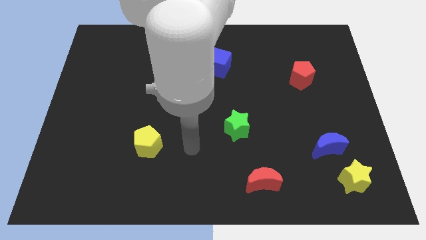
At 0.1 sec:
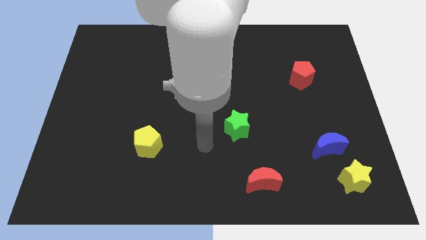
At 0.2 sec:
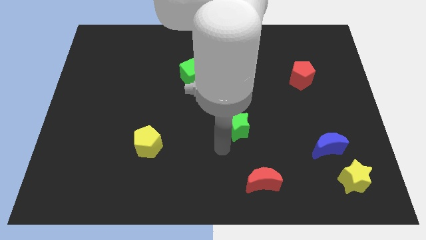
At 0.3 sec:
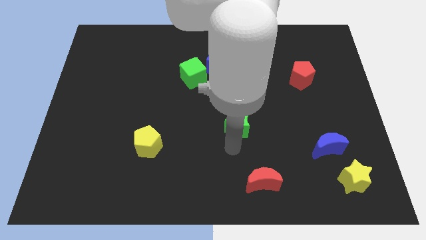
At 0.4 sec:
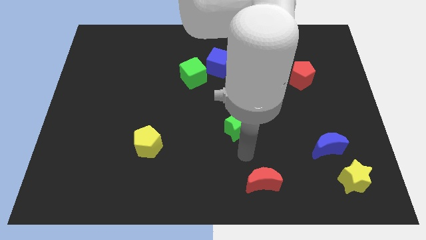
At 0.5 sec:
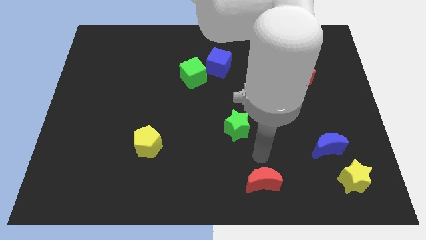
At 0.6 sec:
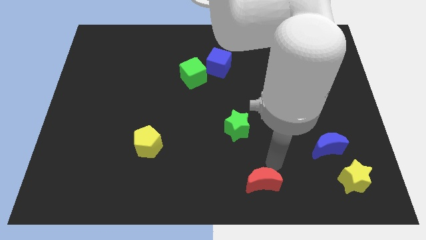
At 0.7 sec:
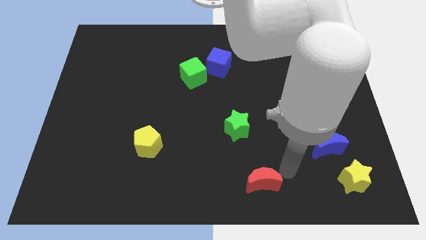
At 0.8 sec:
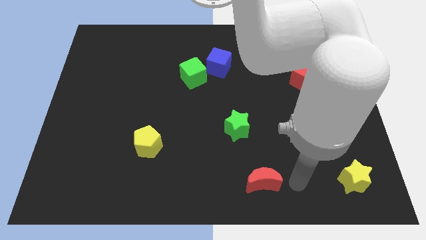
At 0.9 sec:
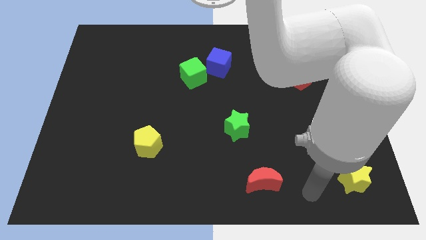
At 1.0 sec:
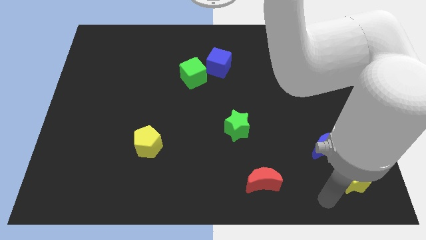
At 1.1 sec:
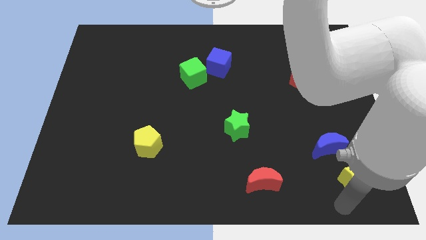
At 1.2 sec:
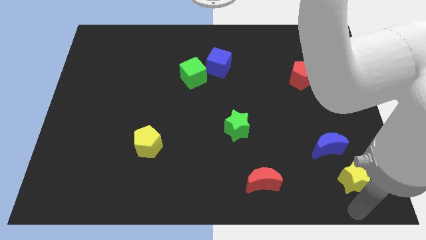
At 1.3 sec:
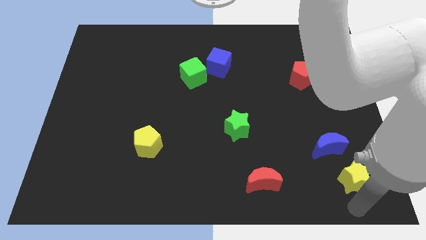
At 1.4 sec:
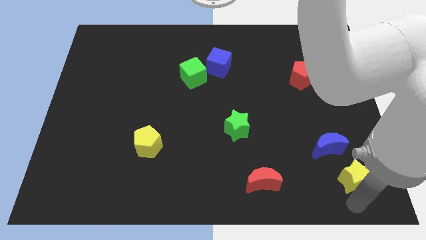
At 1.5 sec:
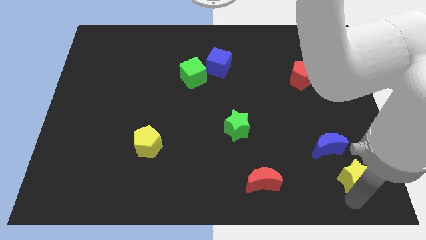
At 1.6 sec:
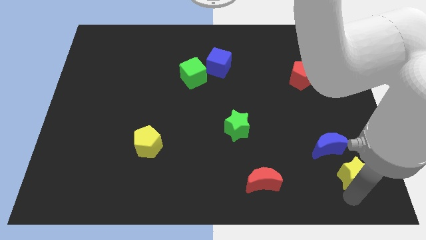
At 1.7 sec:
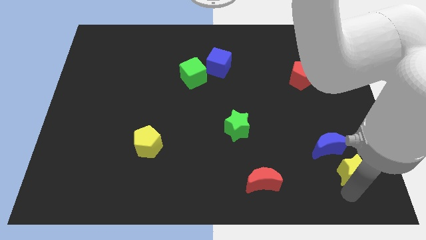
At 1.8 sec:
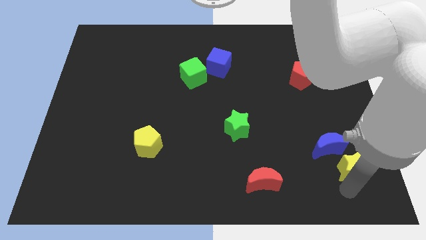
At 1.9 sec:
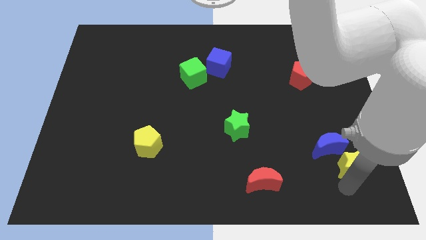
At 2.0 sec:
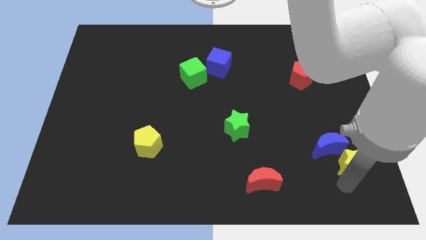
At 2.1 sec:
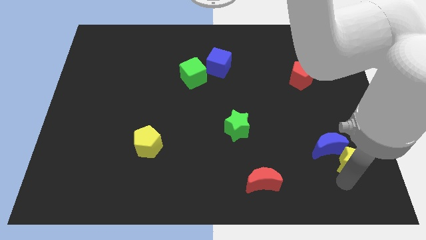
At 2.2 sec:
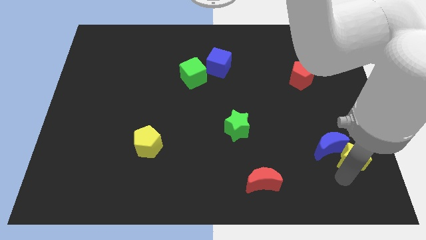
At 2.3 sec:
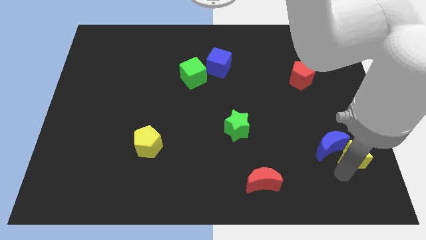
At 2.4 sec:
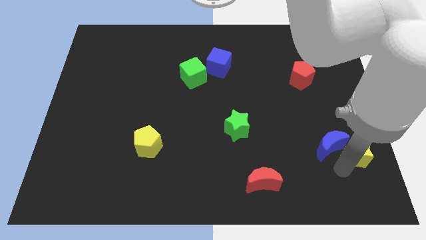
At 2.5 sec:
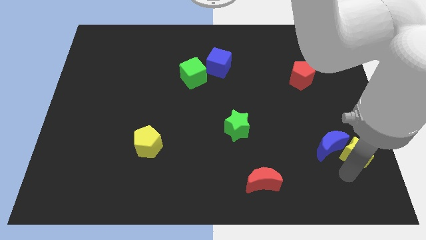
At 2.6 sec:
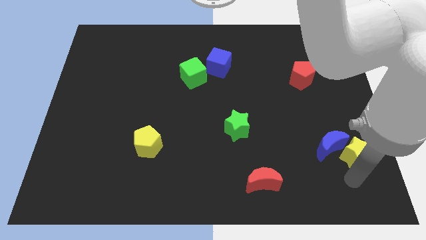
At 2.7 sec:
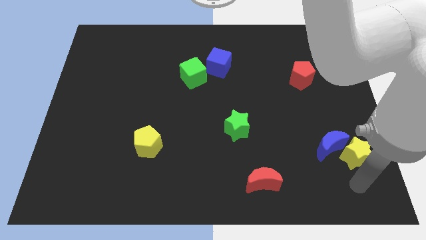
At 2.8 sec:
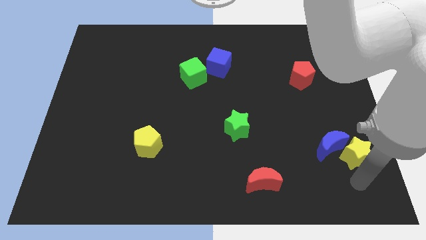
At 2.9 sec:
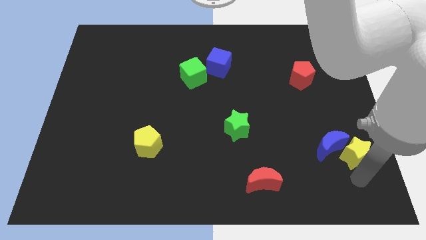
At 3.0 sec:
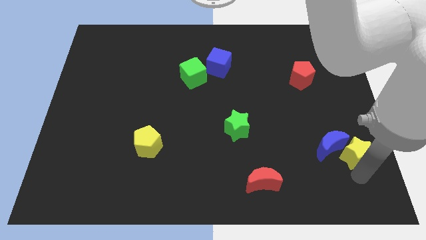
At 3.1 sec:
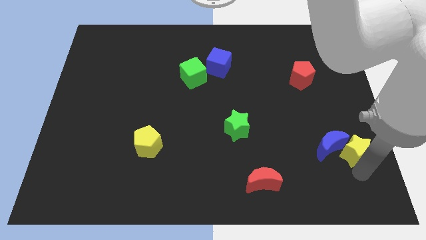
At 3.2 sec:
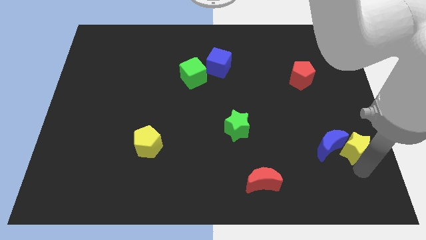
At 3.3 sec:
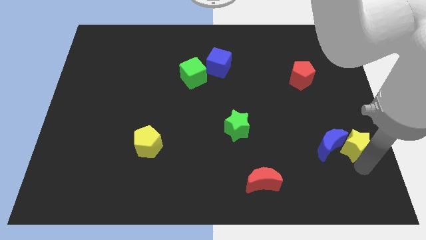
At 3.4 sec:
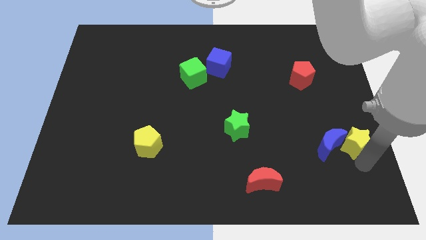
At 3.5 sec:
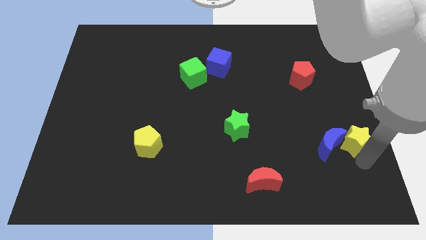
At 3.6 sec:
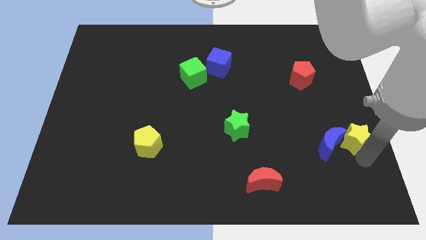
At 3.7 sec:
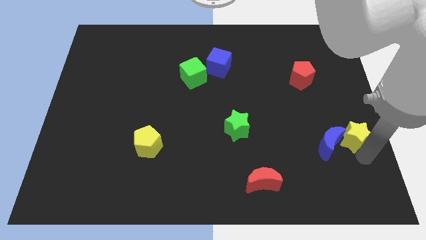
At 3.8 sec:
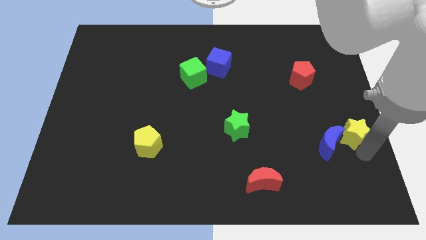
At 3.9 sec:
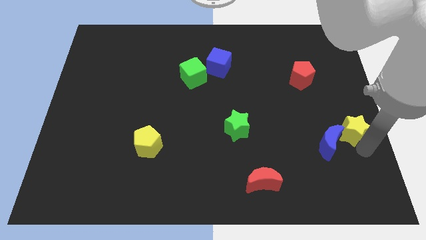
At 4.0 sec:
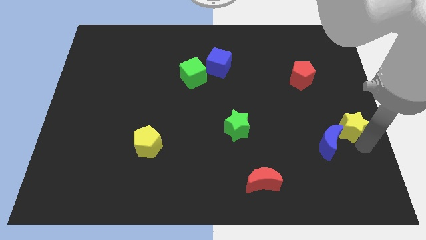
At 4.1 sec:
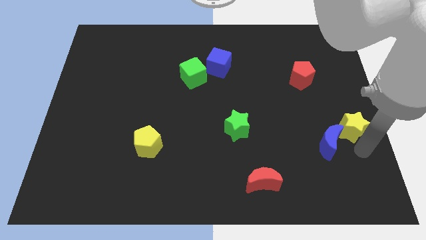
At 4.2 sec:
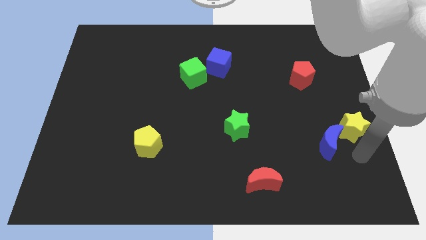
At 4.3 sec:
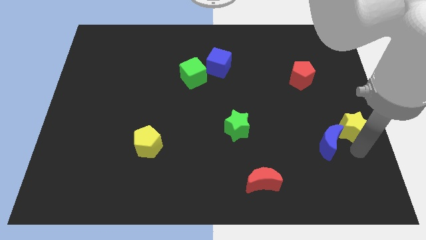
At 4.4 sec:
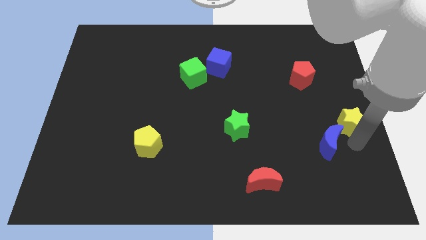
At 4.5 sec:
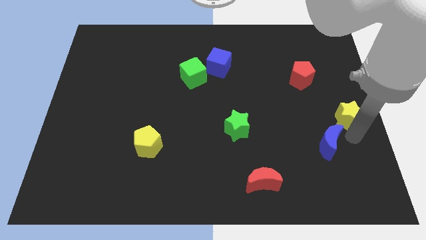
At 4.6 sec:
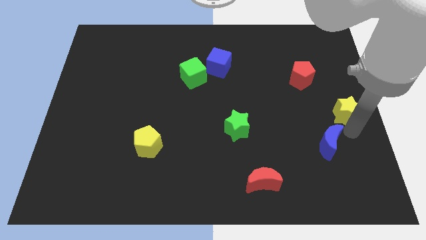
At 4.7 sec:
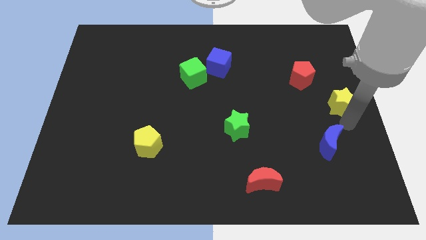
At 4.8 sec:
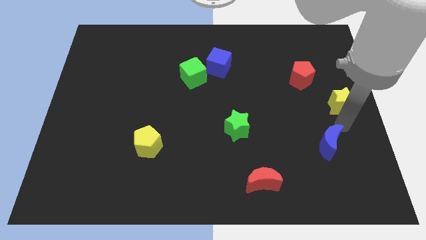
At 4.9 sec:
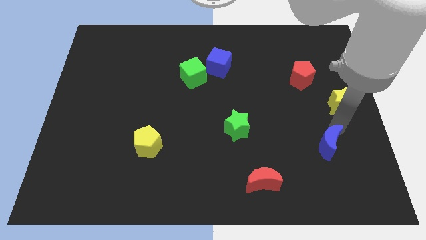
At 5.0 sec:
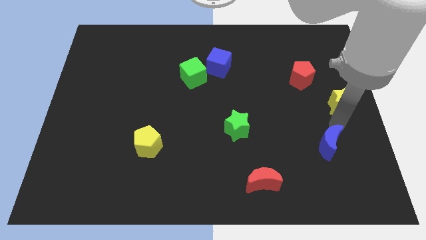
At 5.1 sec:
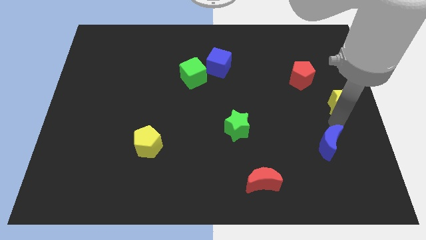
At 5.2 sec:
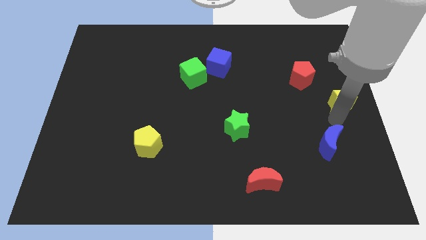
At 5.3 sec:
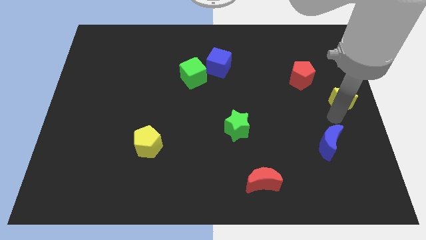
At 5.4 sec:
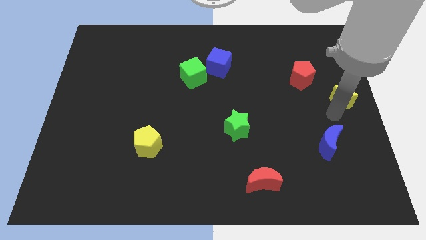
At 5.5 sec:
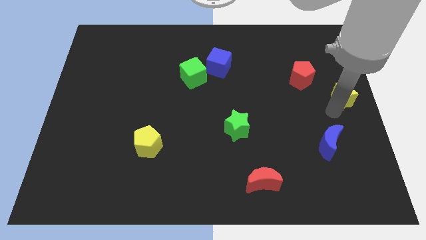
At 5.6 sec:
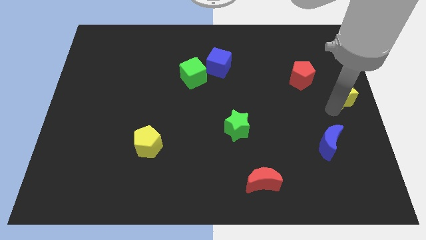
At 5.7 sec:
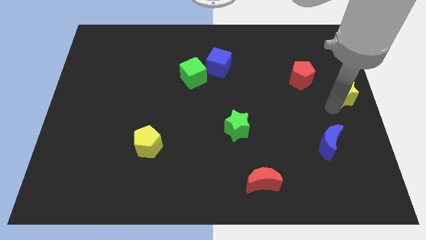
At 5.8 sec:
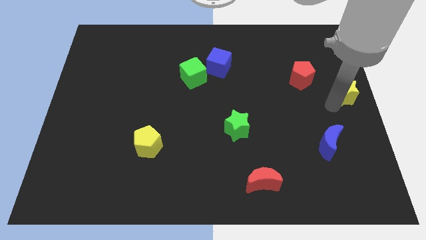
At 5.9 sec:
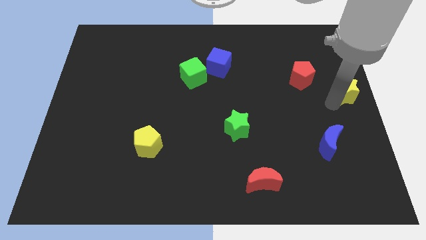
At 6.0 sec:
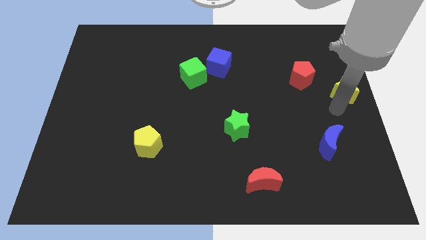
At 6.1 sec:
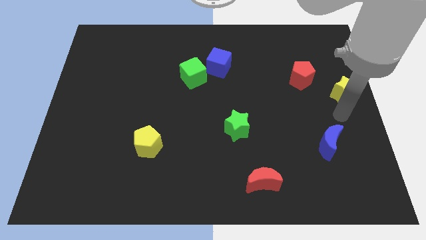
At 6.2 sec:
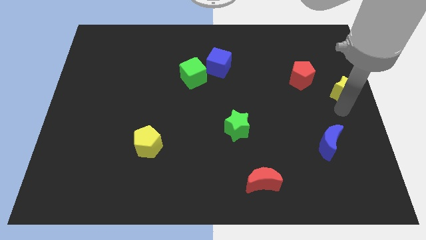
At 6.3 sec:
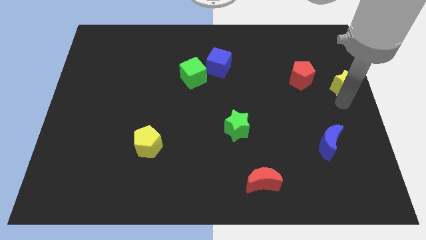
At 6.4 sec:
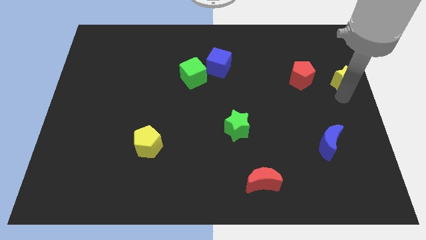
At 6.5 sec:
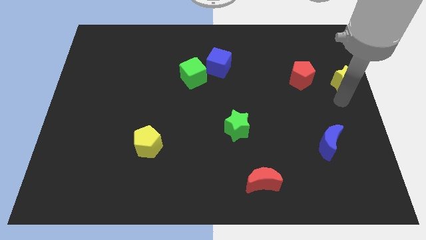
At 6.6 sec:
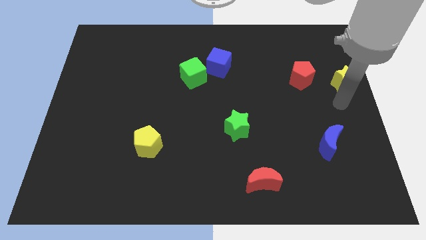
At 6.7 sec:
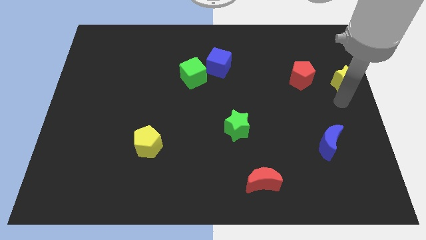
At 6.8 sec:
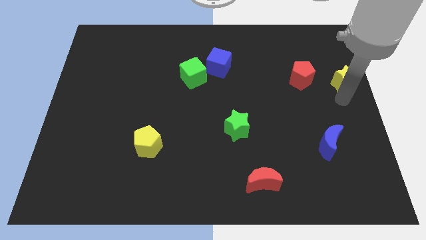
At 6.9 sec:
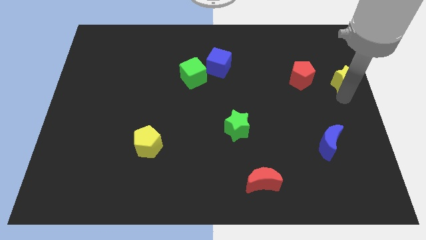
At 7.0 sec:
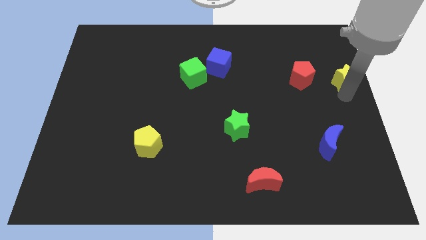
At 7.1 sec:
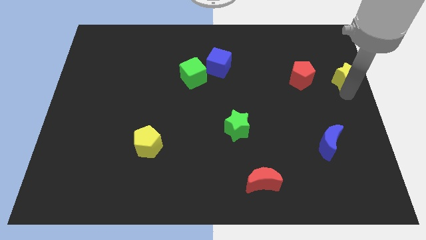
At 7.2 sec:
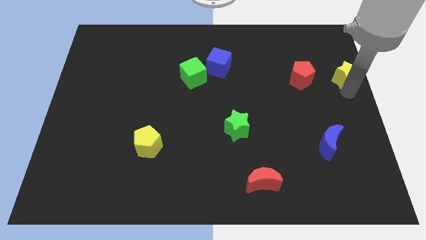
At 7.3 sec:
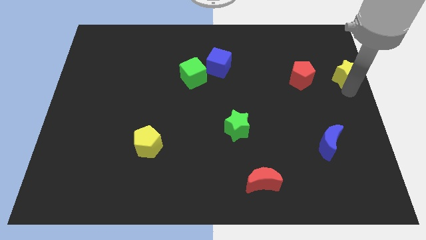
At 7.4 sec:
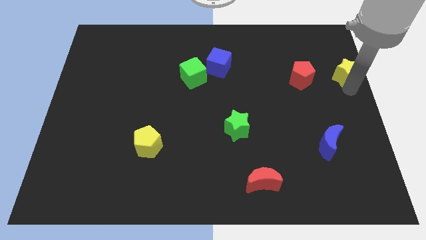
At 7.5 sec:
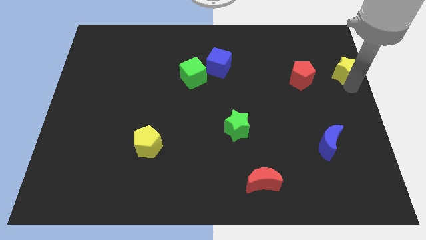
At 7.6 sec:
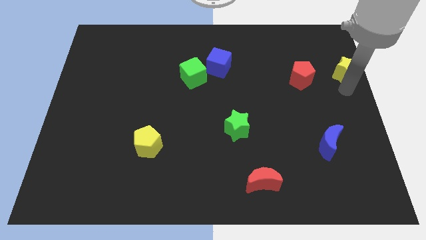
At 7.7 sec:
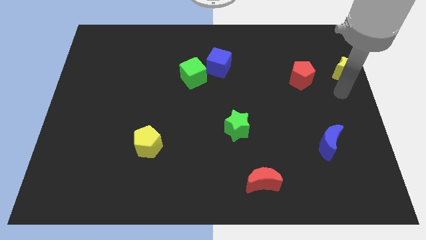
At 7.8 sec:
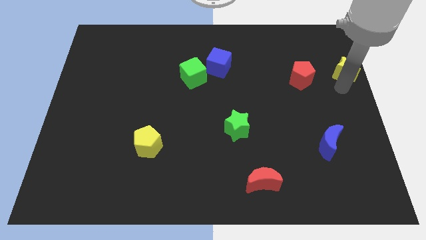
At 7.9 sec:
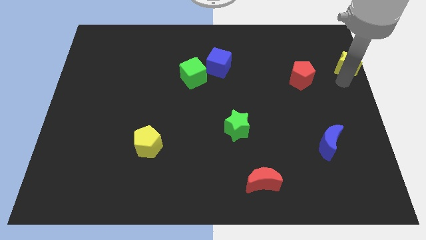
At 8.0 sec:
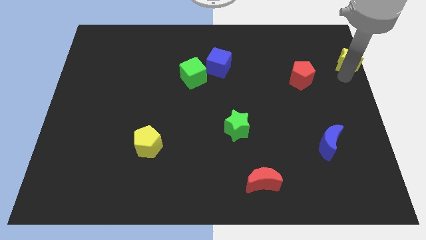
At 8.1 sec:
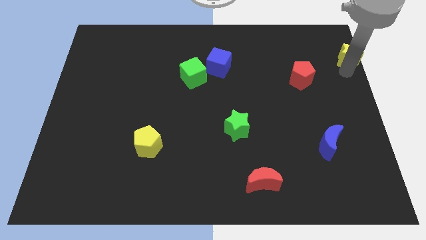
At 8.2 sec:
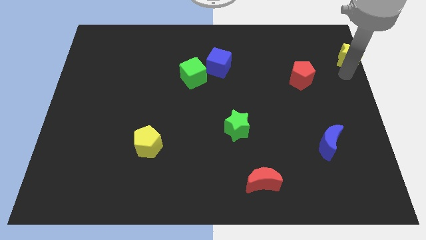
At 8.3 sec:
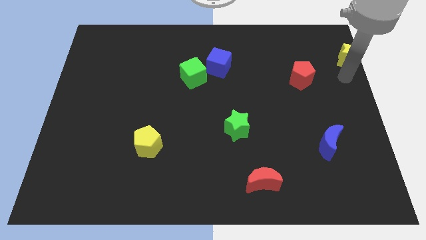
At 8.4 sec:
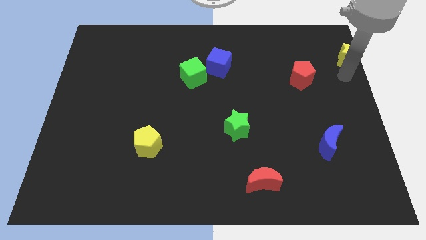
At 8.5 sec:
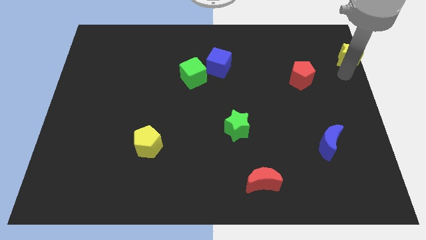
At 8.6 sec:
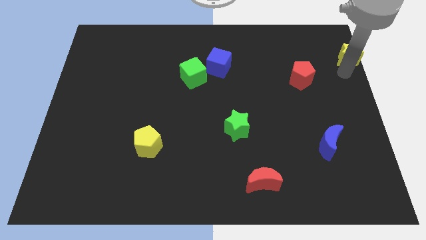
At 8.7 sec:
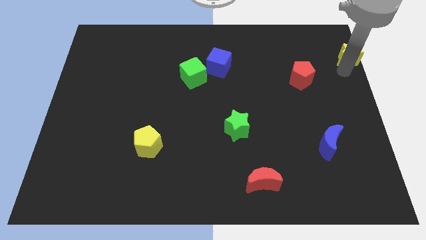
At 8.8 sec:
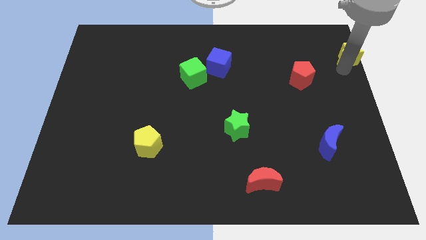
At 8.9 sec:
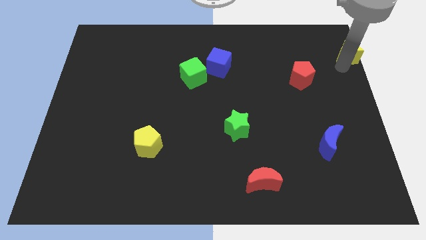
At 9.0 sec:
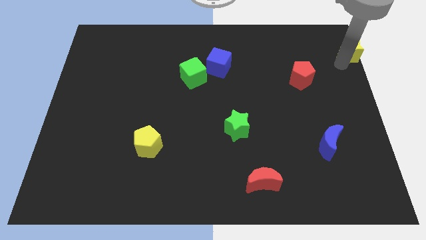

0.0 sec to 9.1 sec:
push the yellow star to the upper right corner
